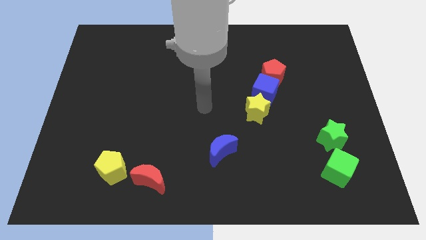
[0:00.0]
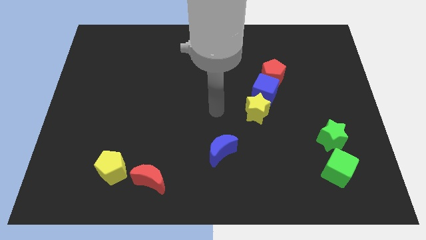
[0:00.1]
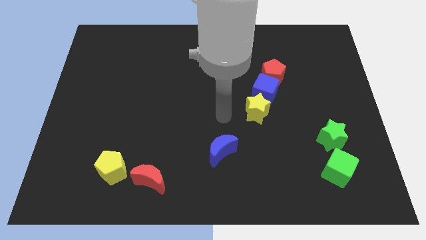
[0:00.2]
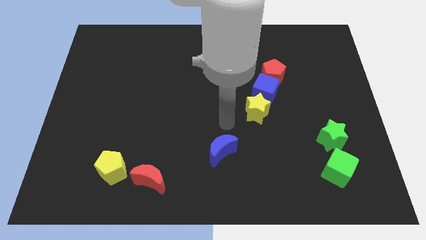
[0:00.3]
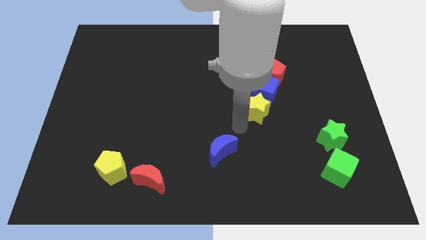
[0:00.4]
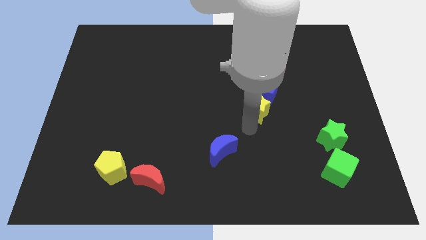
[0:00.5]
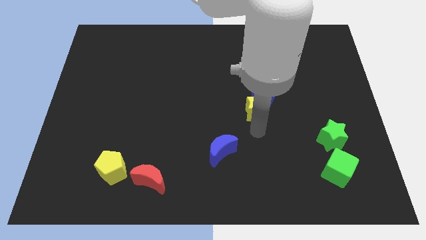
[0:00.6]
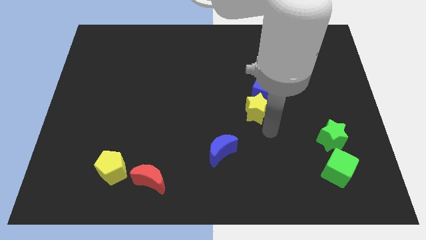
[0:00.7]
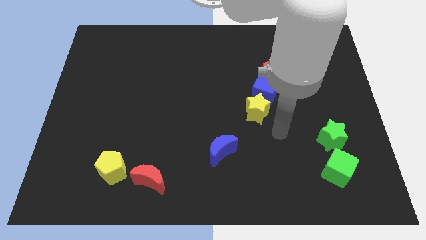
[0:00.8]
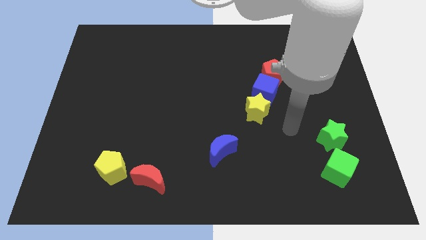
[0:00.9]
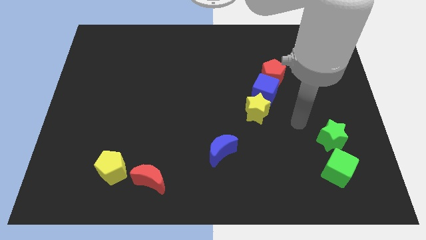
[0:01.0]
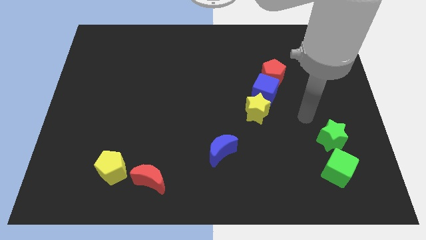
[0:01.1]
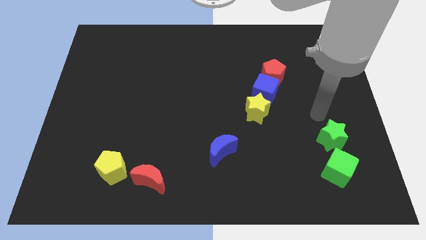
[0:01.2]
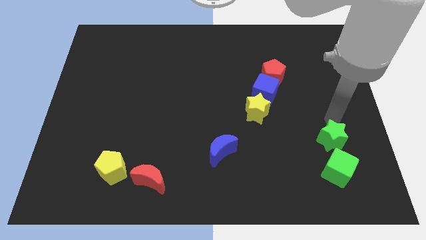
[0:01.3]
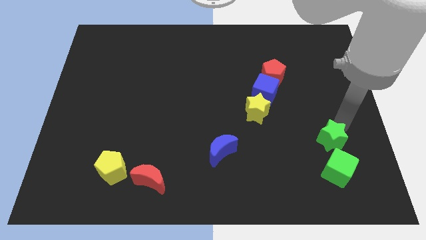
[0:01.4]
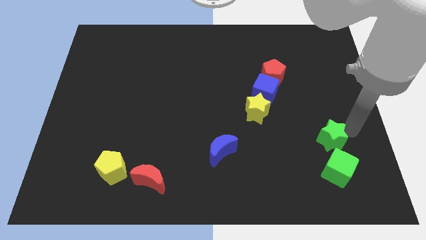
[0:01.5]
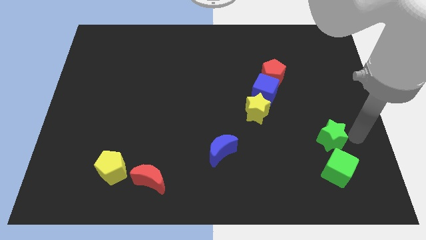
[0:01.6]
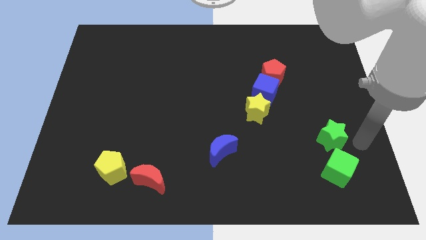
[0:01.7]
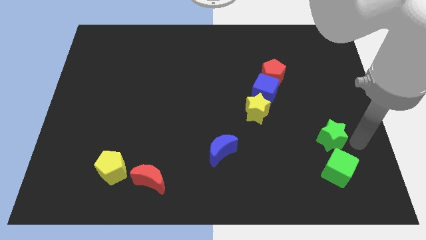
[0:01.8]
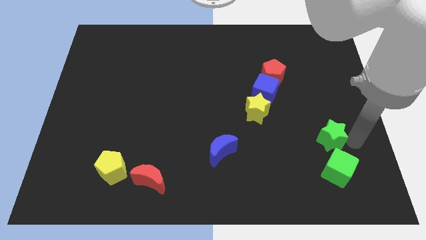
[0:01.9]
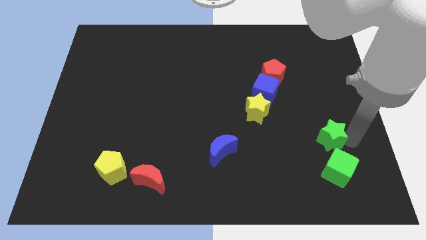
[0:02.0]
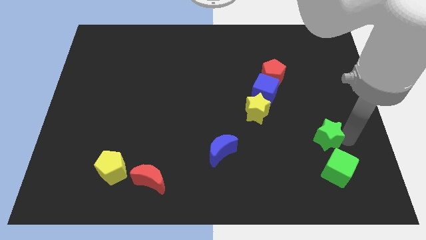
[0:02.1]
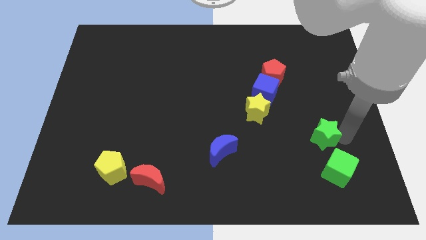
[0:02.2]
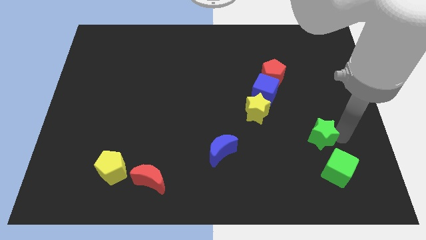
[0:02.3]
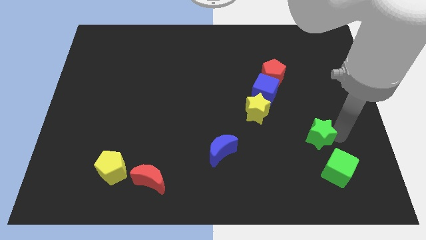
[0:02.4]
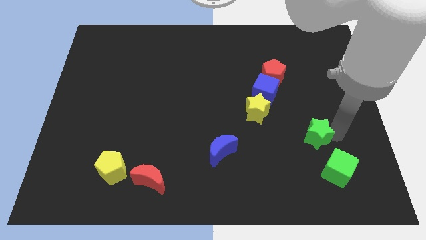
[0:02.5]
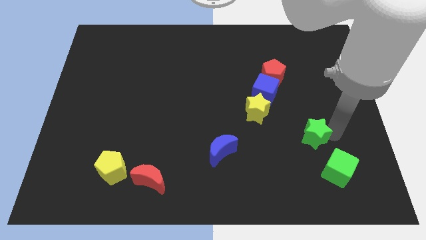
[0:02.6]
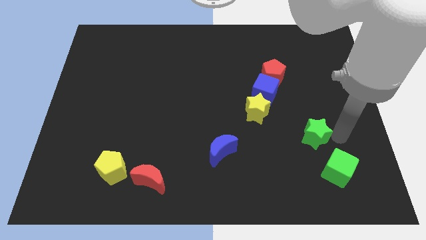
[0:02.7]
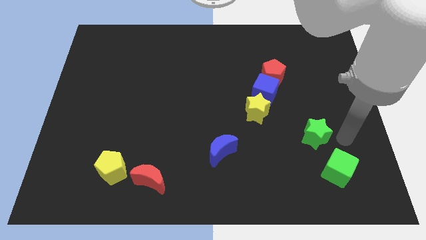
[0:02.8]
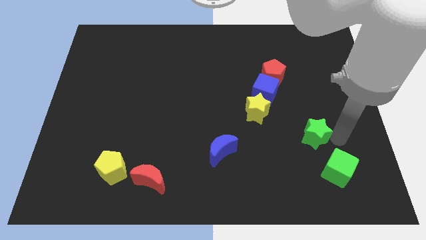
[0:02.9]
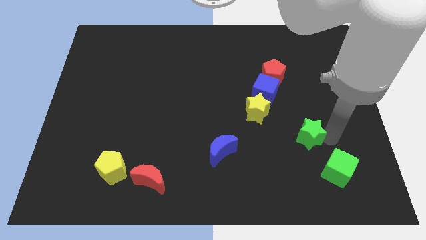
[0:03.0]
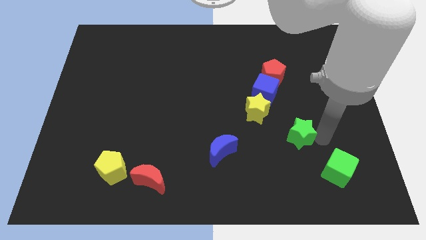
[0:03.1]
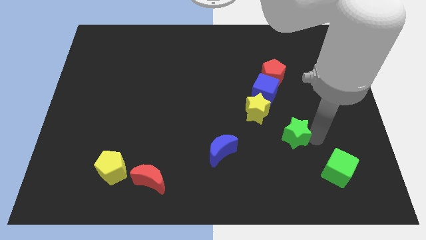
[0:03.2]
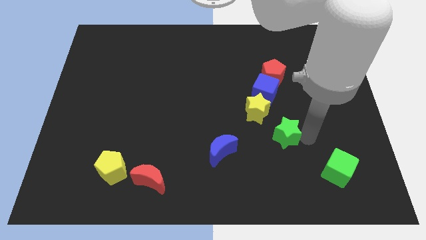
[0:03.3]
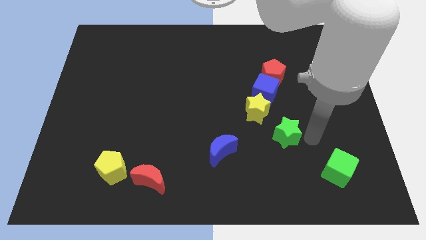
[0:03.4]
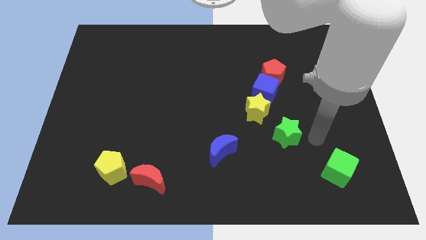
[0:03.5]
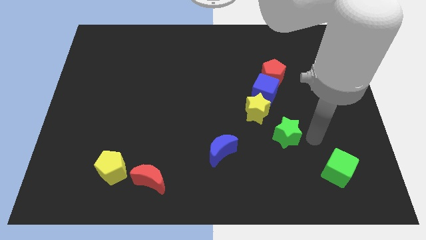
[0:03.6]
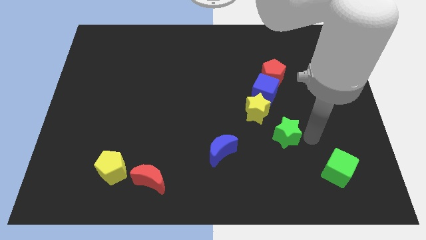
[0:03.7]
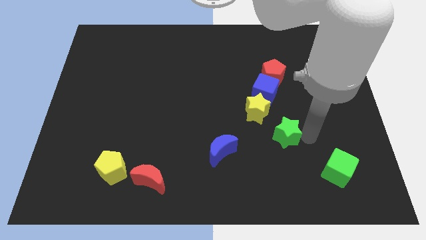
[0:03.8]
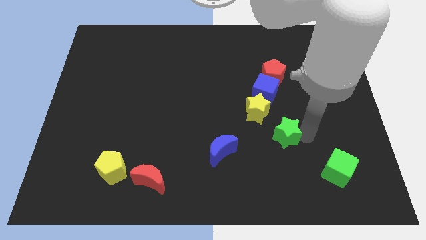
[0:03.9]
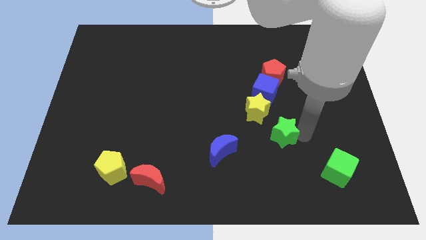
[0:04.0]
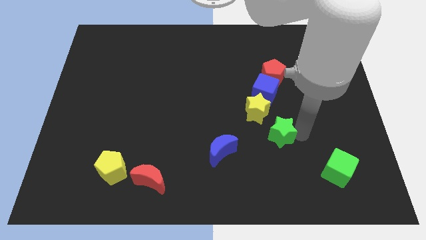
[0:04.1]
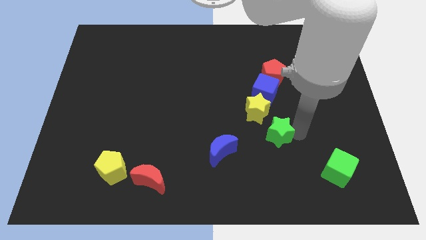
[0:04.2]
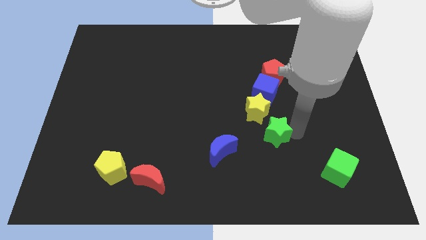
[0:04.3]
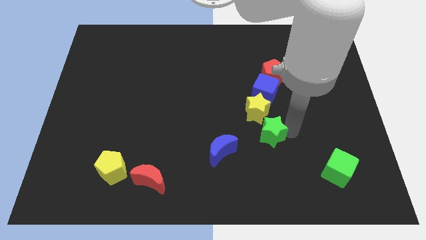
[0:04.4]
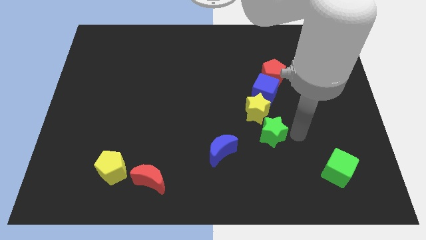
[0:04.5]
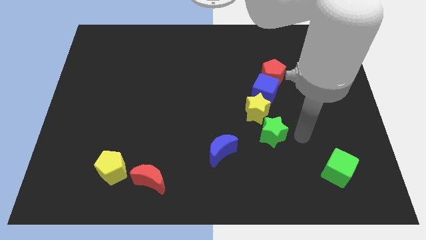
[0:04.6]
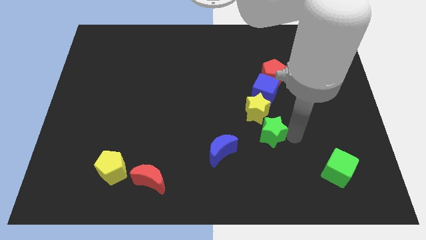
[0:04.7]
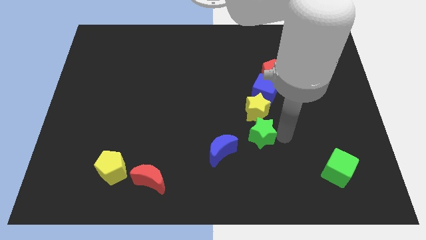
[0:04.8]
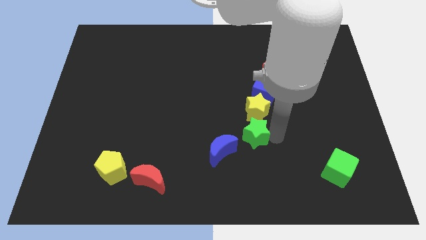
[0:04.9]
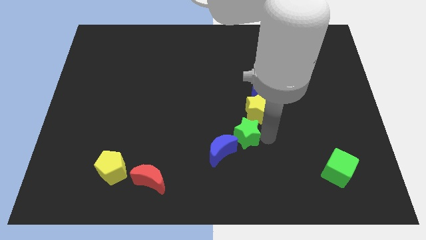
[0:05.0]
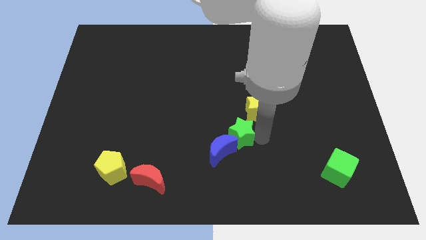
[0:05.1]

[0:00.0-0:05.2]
move the green star to the left

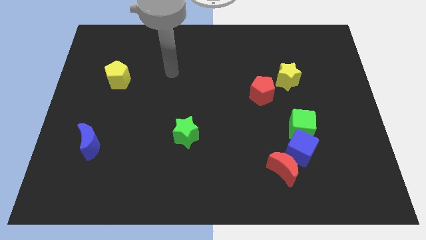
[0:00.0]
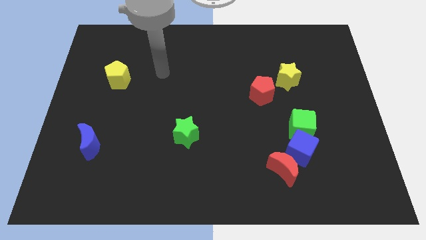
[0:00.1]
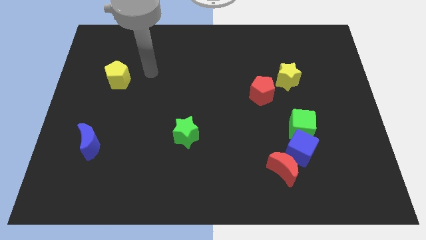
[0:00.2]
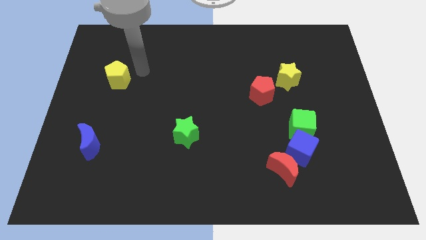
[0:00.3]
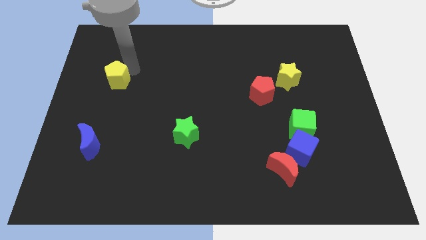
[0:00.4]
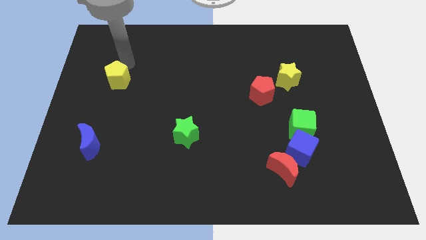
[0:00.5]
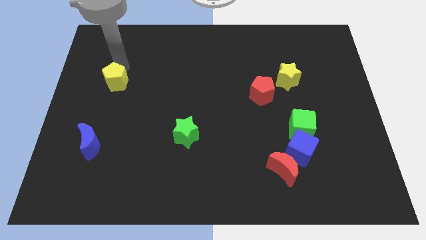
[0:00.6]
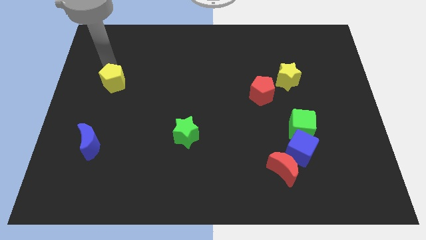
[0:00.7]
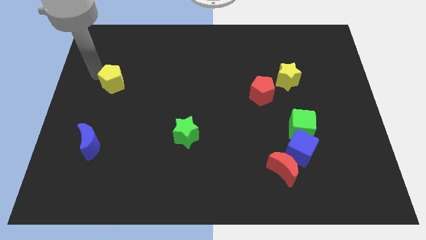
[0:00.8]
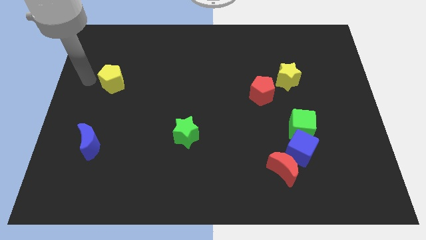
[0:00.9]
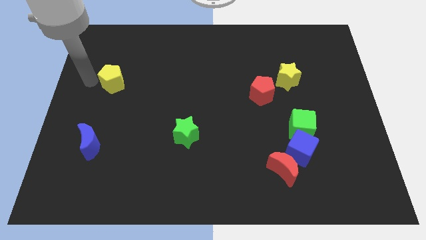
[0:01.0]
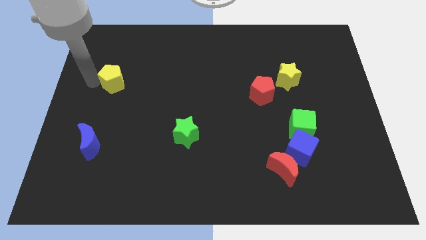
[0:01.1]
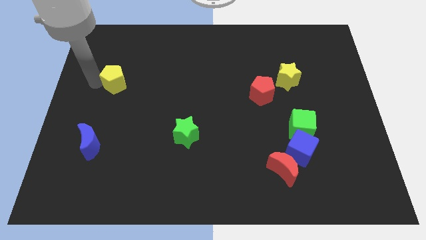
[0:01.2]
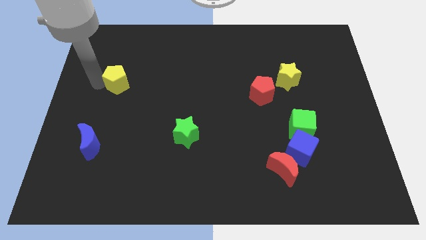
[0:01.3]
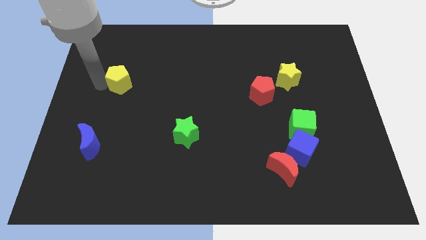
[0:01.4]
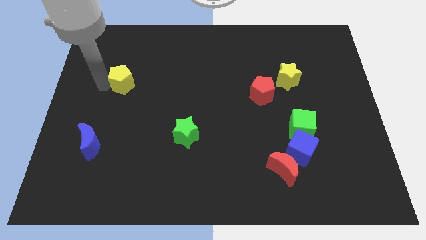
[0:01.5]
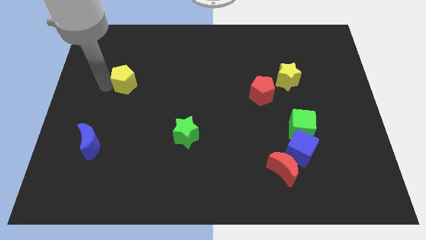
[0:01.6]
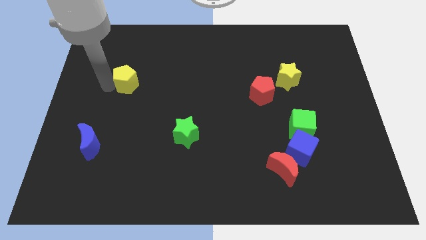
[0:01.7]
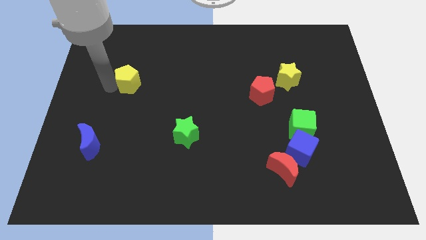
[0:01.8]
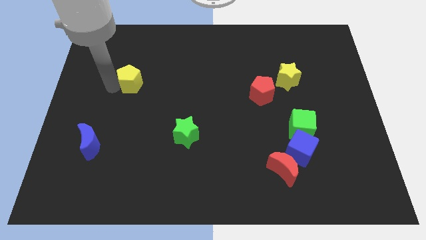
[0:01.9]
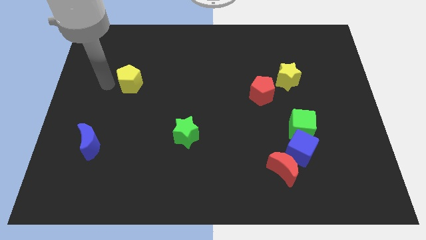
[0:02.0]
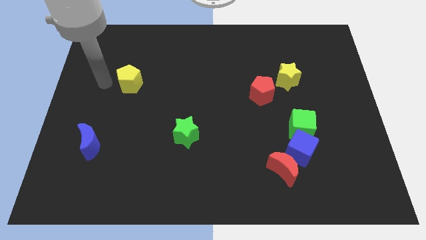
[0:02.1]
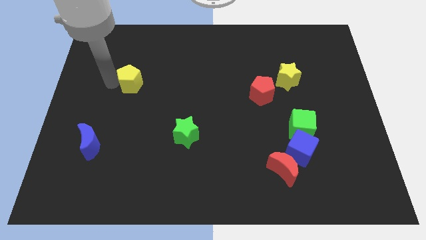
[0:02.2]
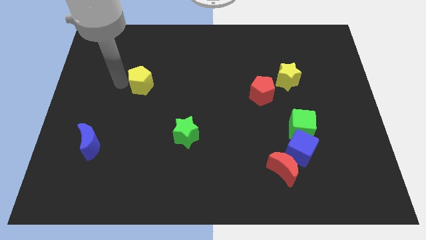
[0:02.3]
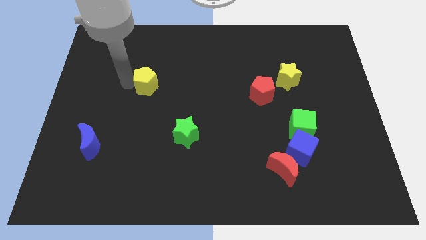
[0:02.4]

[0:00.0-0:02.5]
slightly push the yellow pentagon to the right

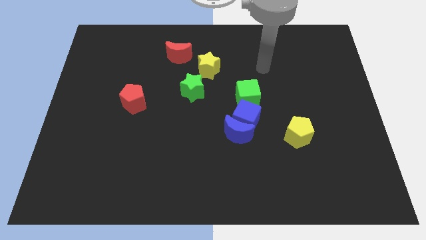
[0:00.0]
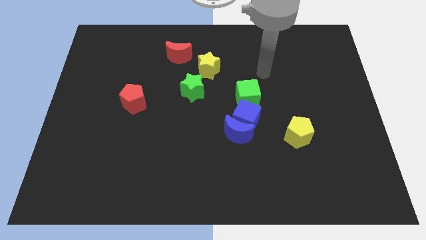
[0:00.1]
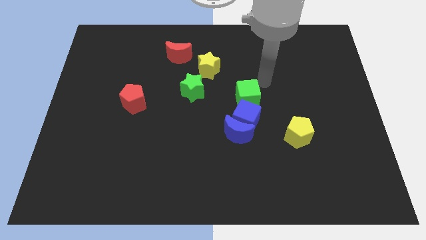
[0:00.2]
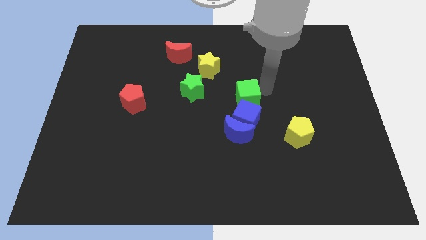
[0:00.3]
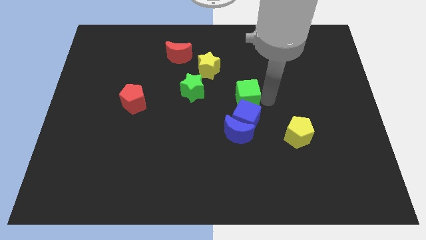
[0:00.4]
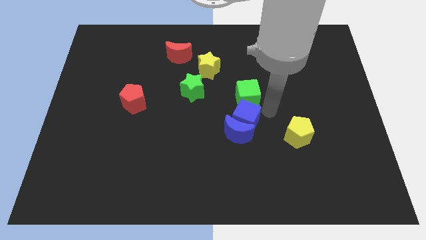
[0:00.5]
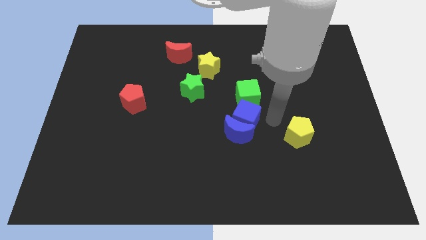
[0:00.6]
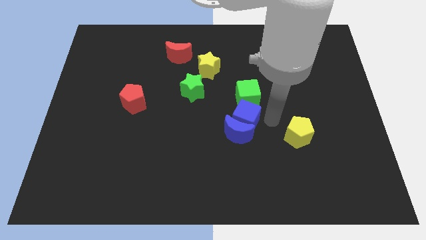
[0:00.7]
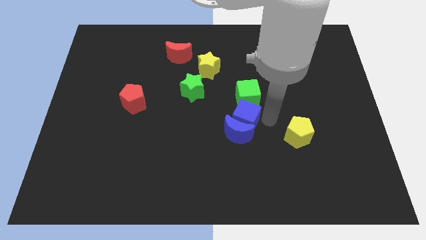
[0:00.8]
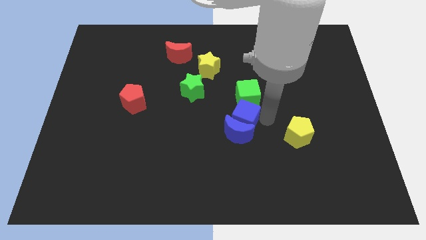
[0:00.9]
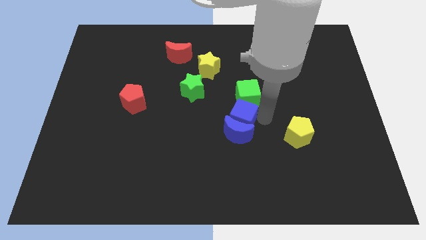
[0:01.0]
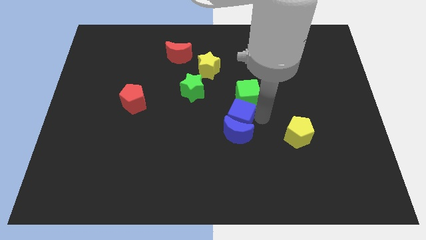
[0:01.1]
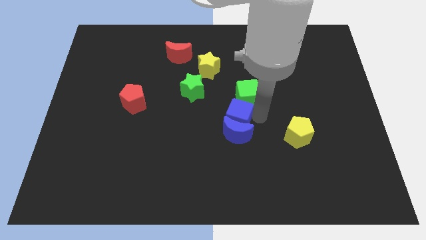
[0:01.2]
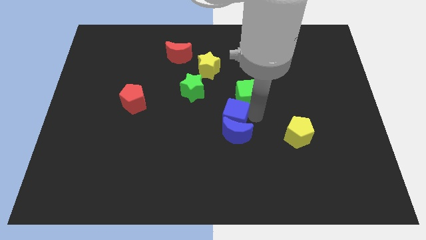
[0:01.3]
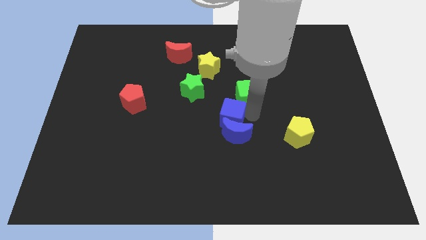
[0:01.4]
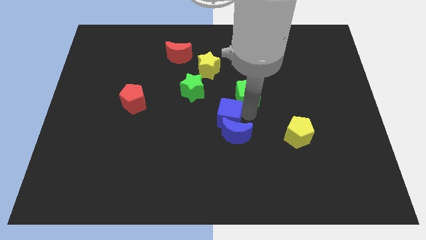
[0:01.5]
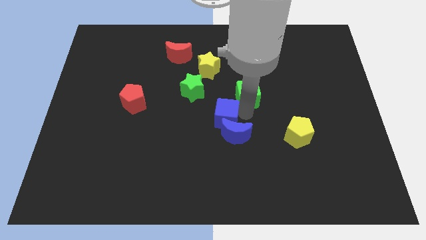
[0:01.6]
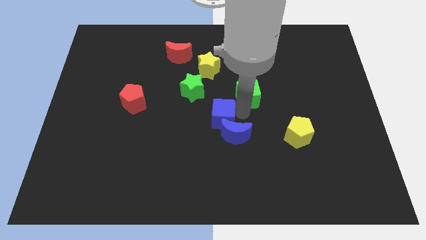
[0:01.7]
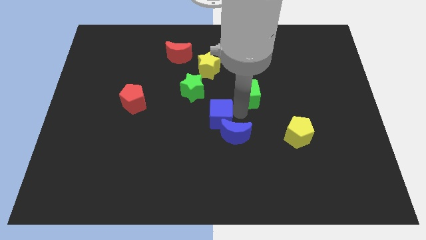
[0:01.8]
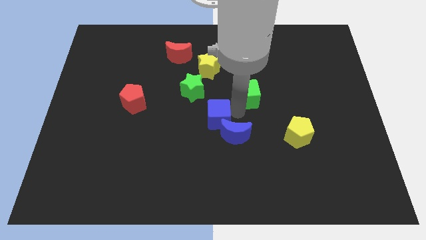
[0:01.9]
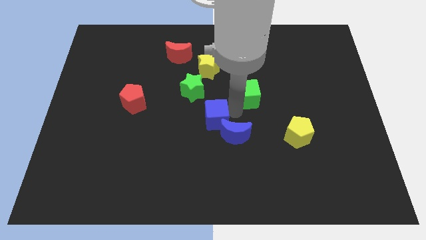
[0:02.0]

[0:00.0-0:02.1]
push the blue cube to the left a little
